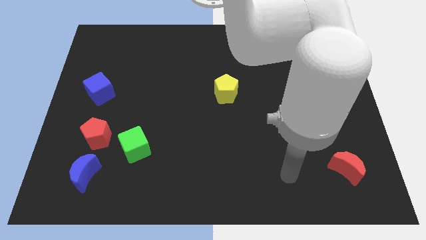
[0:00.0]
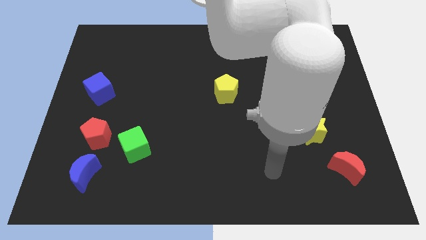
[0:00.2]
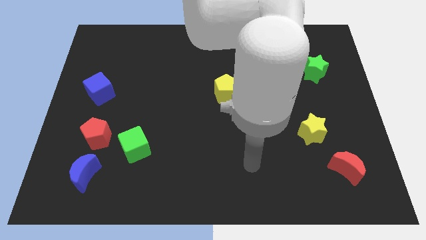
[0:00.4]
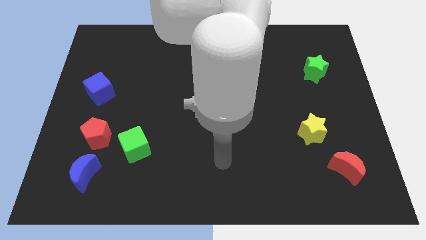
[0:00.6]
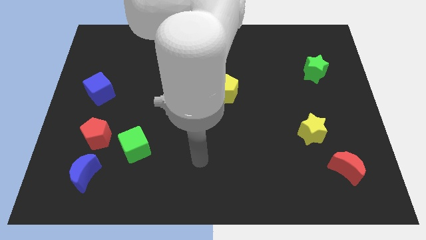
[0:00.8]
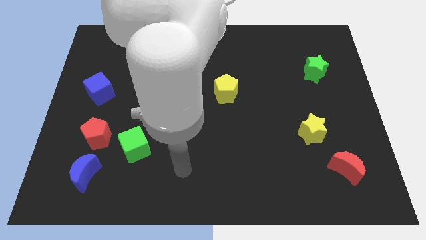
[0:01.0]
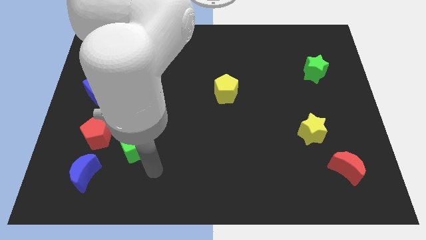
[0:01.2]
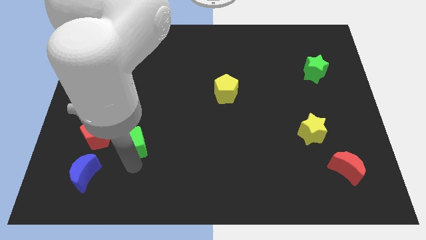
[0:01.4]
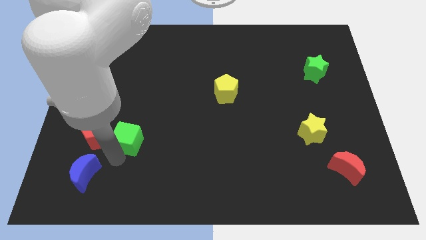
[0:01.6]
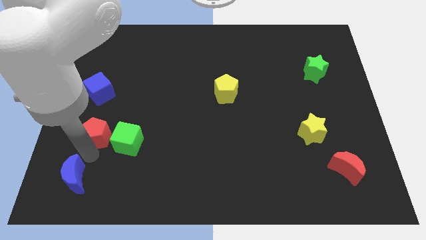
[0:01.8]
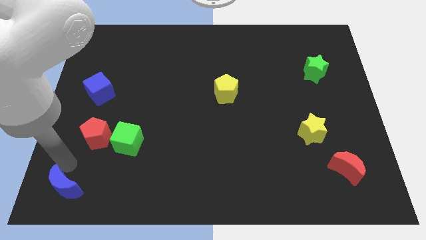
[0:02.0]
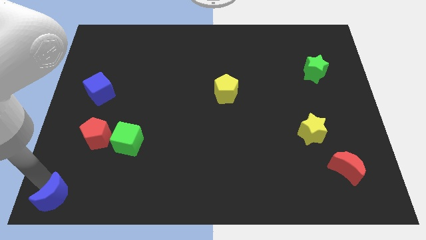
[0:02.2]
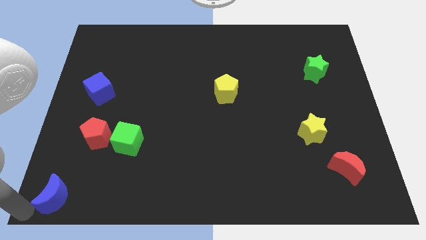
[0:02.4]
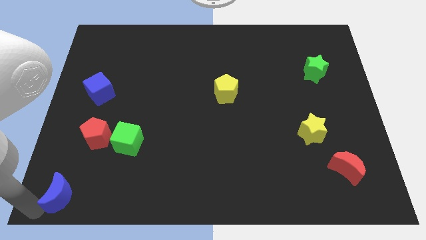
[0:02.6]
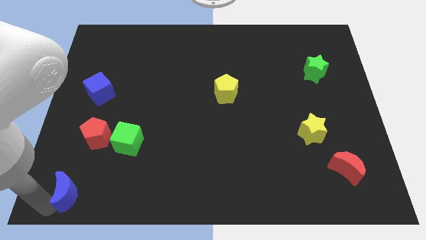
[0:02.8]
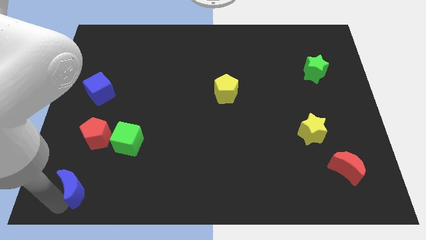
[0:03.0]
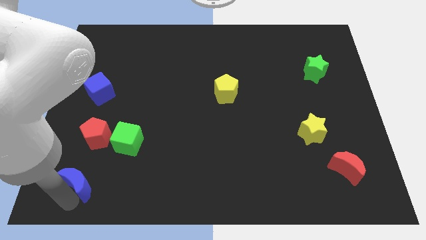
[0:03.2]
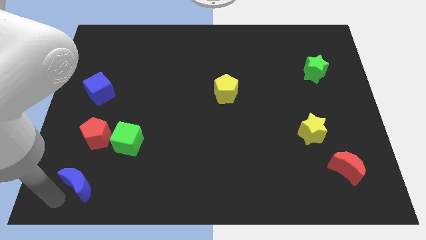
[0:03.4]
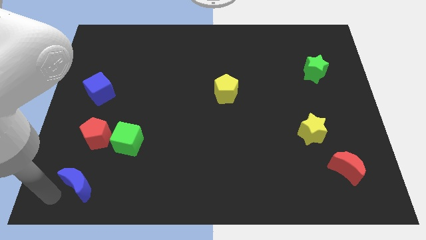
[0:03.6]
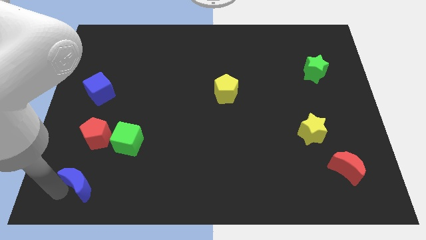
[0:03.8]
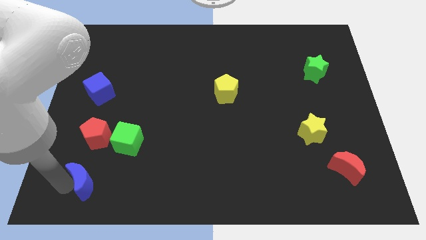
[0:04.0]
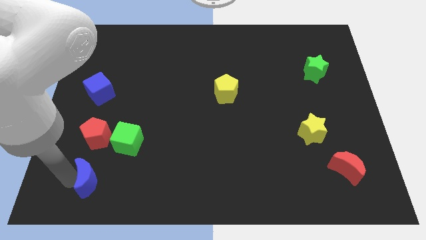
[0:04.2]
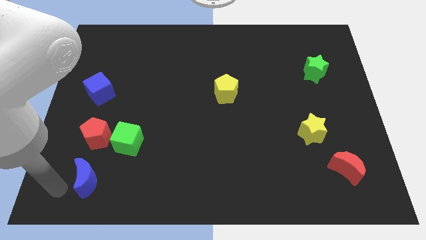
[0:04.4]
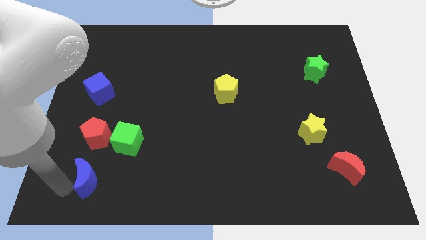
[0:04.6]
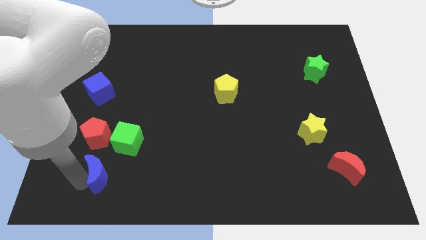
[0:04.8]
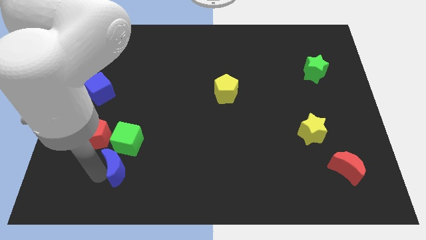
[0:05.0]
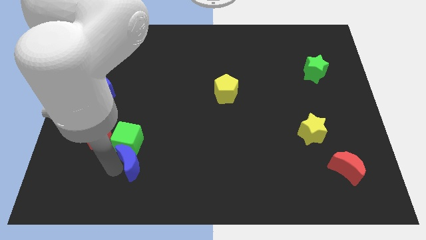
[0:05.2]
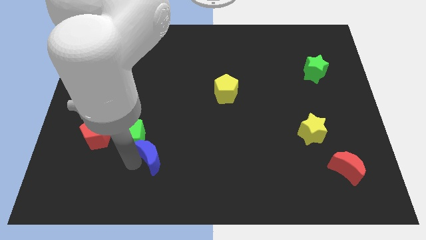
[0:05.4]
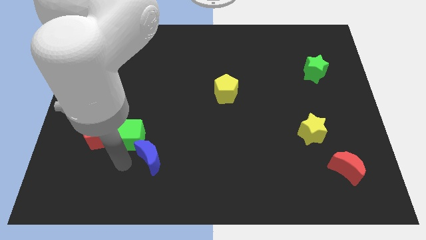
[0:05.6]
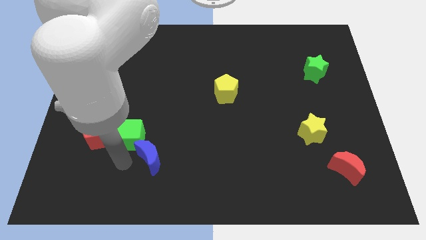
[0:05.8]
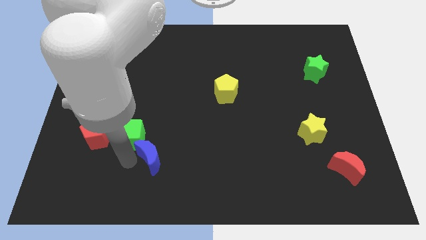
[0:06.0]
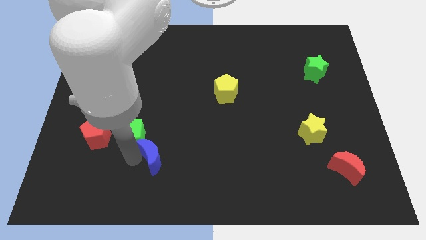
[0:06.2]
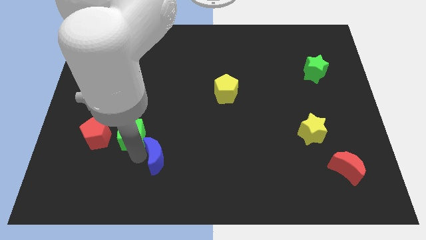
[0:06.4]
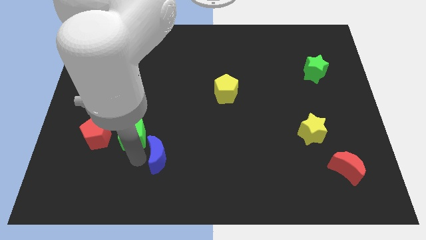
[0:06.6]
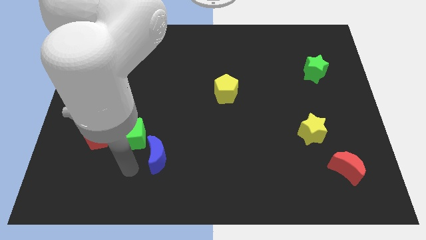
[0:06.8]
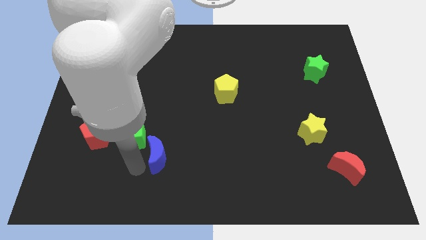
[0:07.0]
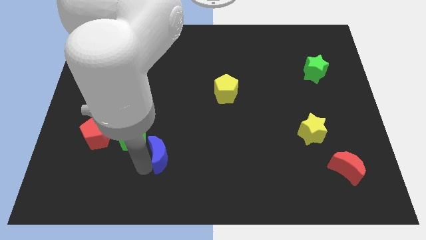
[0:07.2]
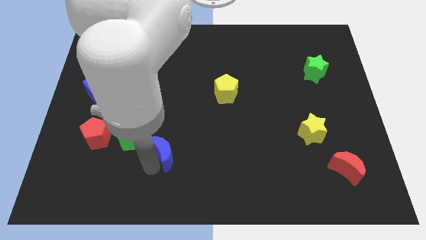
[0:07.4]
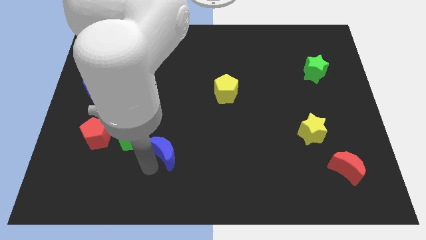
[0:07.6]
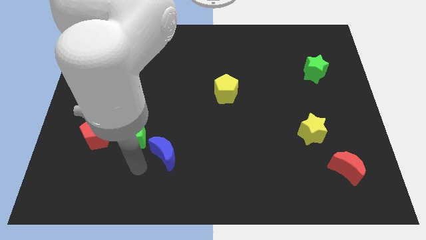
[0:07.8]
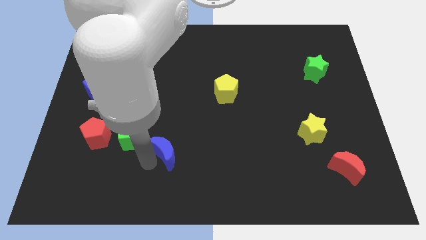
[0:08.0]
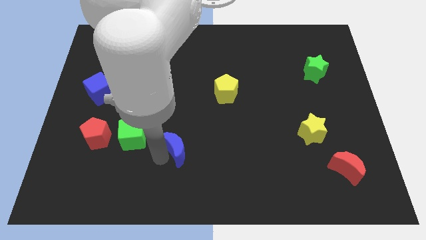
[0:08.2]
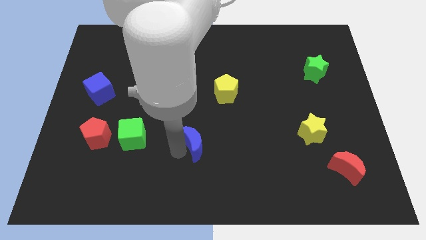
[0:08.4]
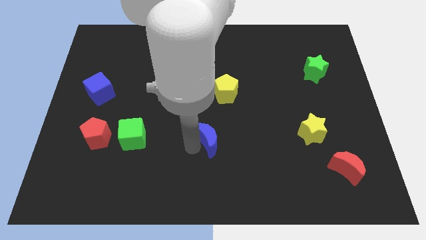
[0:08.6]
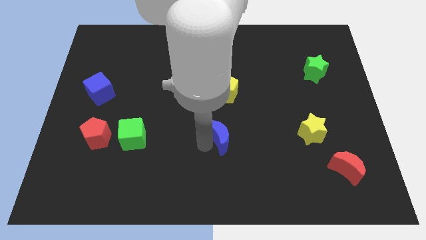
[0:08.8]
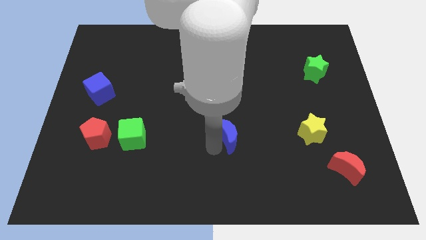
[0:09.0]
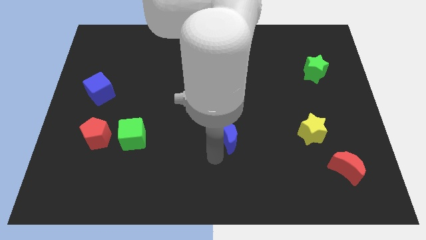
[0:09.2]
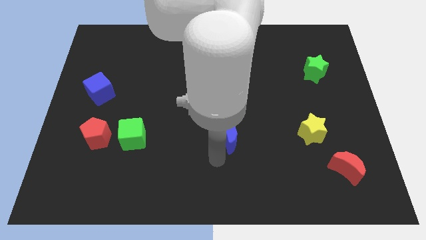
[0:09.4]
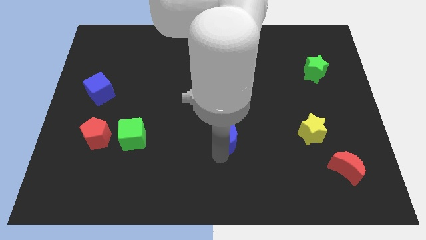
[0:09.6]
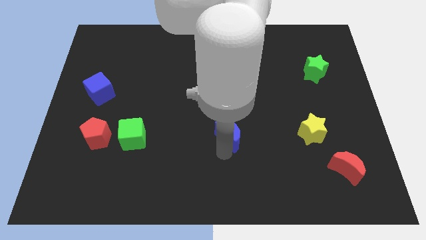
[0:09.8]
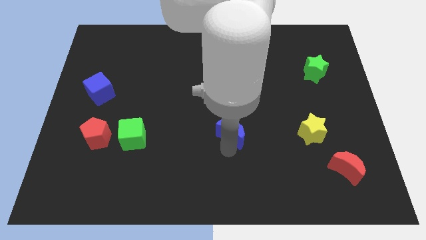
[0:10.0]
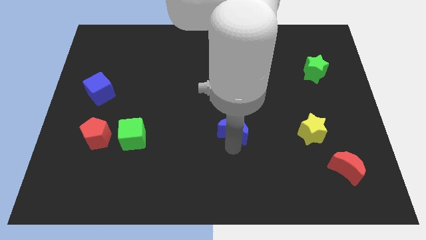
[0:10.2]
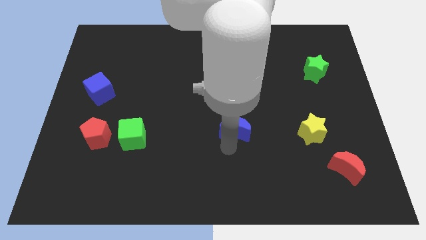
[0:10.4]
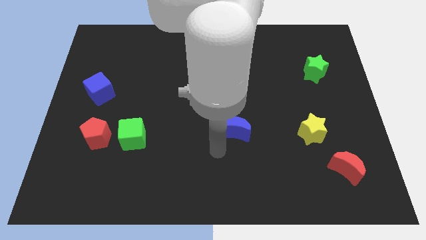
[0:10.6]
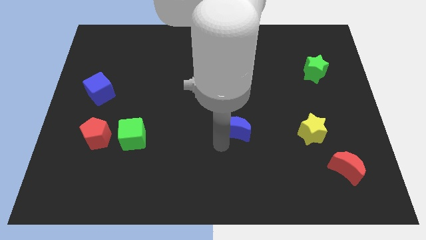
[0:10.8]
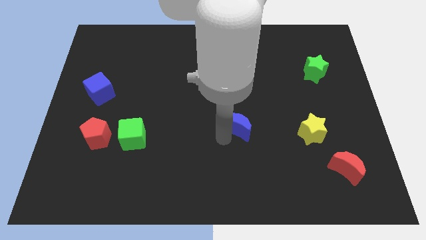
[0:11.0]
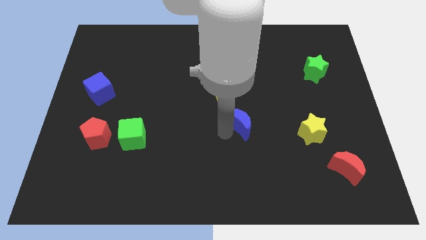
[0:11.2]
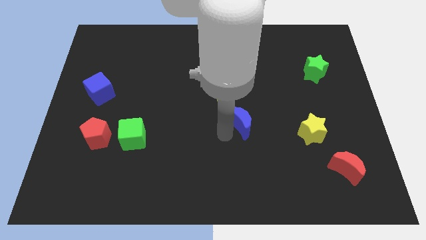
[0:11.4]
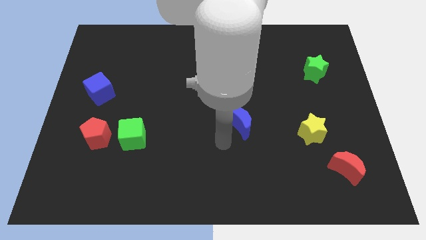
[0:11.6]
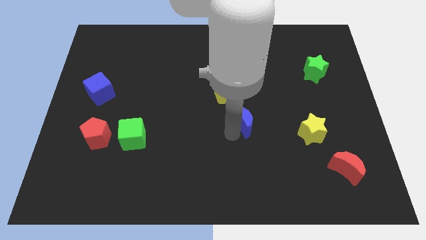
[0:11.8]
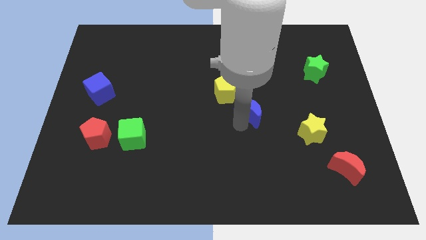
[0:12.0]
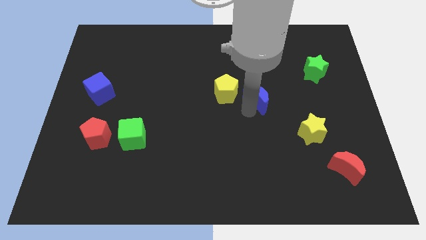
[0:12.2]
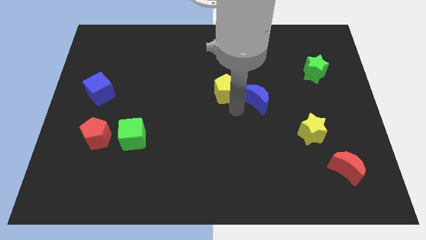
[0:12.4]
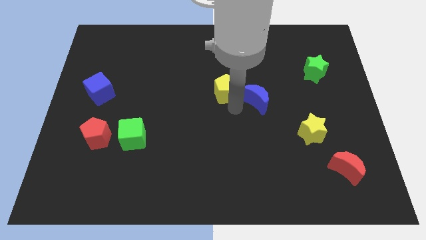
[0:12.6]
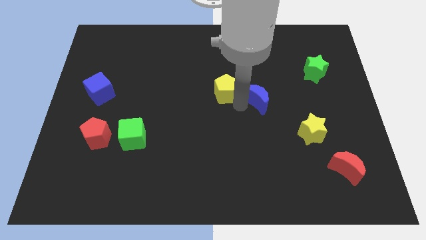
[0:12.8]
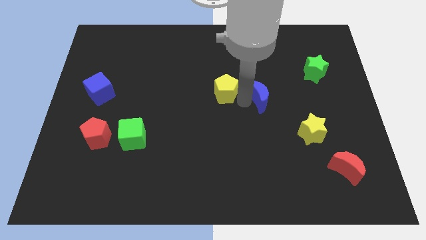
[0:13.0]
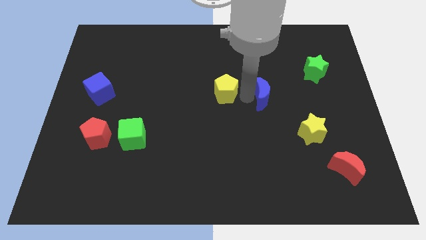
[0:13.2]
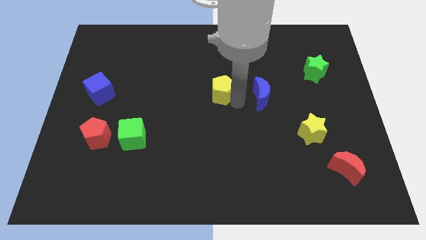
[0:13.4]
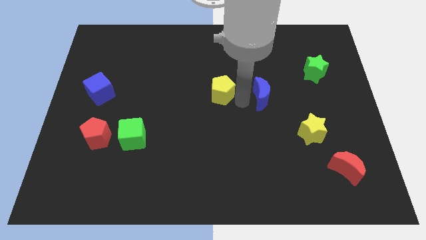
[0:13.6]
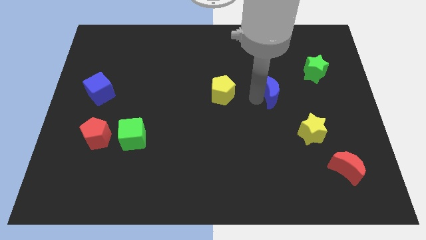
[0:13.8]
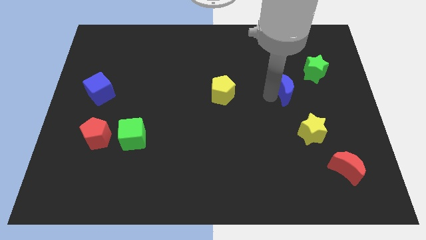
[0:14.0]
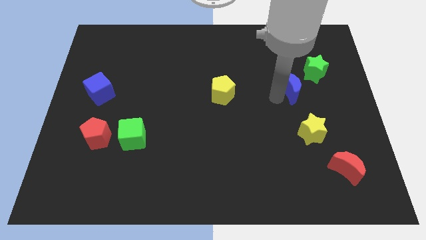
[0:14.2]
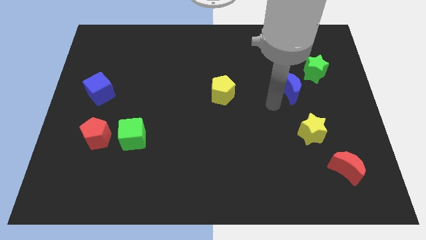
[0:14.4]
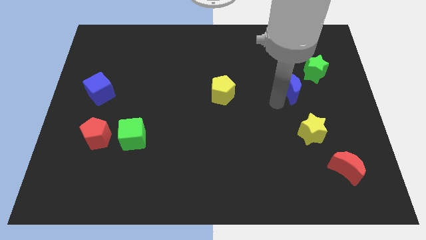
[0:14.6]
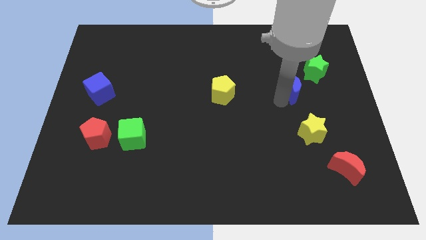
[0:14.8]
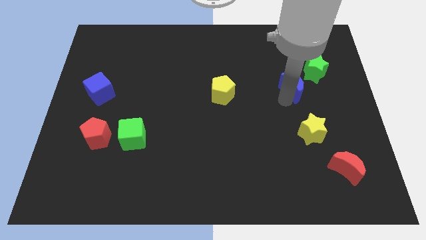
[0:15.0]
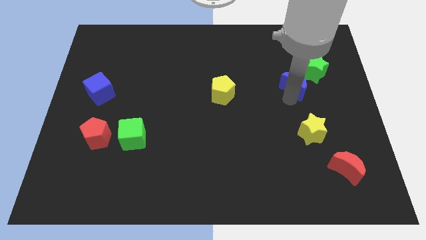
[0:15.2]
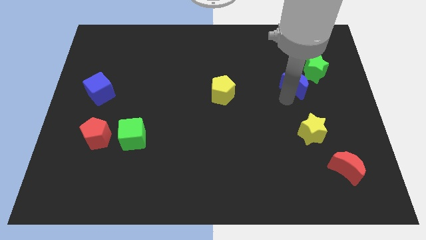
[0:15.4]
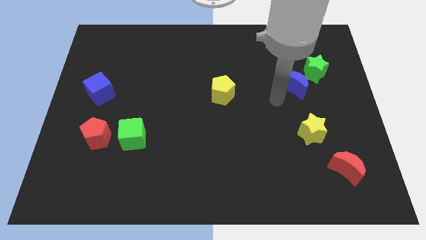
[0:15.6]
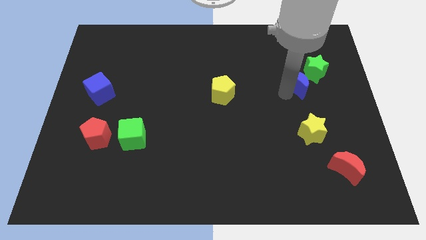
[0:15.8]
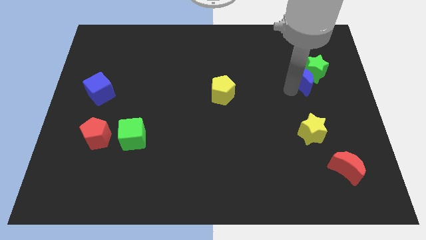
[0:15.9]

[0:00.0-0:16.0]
move the blue moon close to the green star
